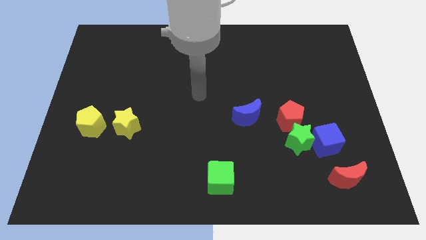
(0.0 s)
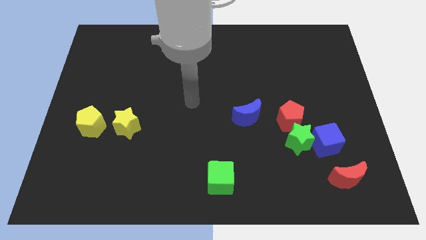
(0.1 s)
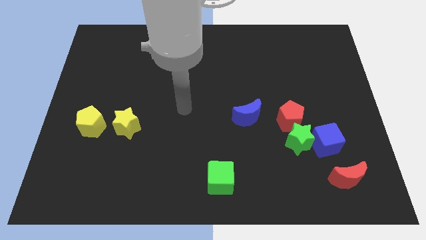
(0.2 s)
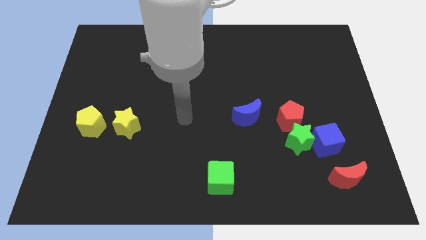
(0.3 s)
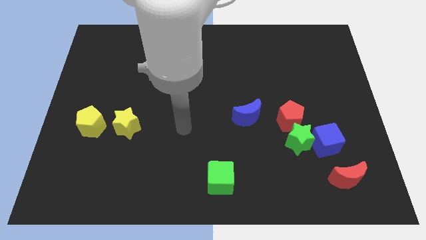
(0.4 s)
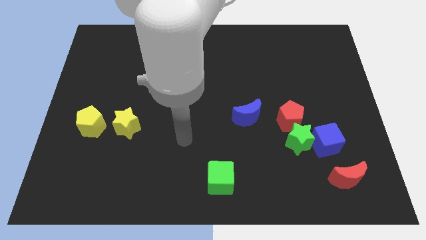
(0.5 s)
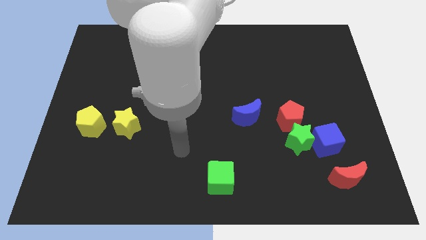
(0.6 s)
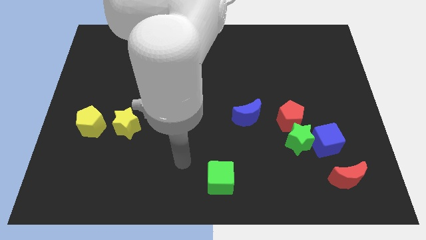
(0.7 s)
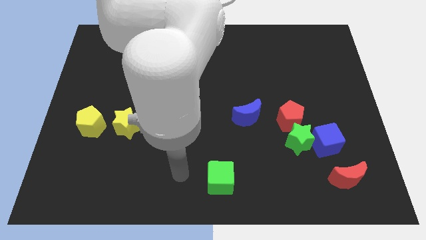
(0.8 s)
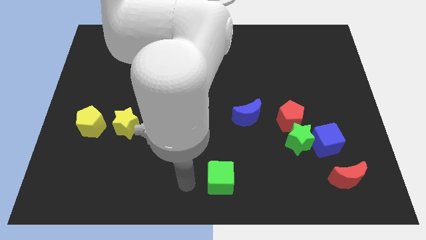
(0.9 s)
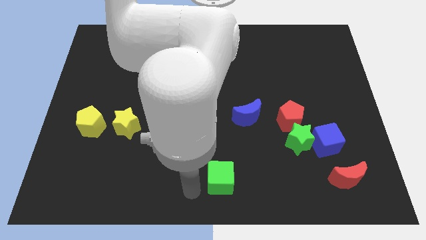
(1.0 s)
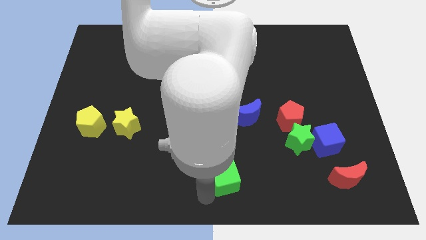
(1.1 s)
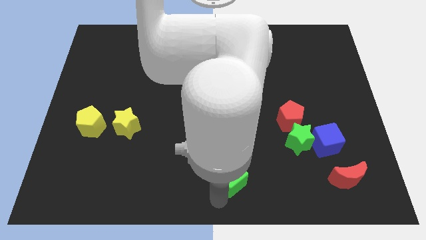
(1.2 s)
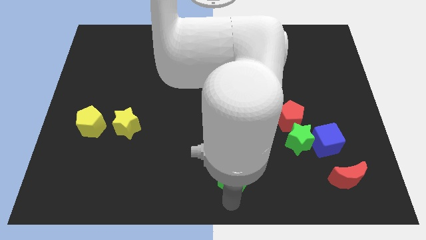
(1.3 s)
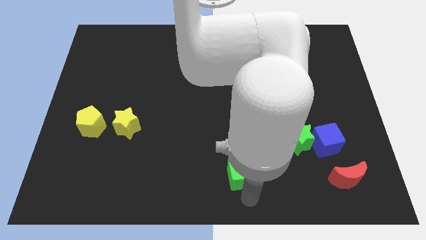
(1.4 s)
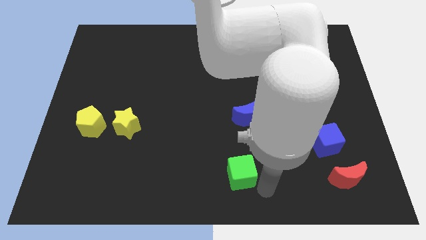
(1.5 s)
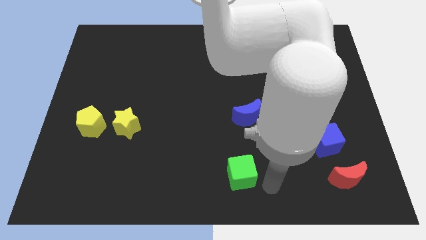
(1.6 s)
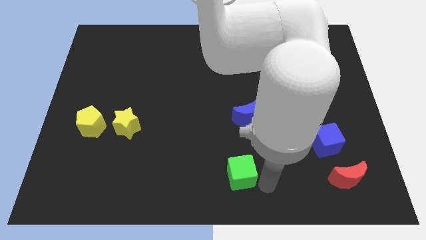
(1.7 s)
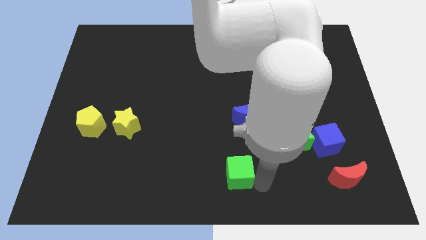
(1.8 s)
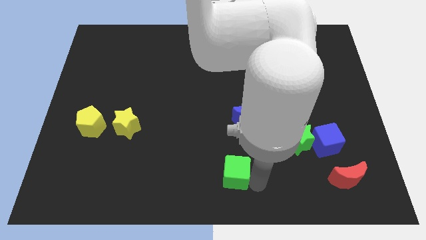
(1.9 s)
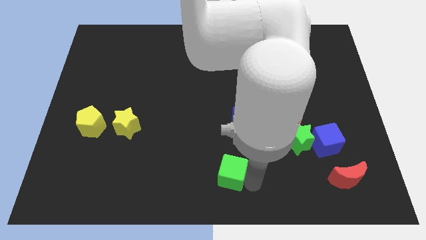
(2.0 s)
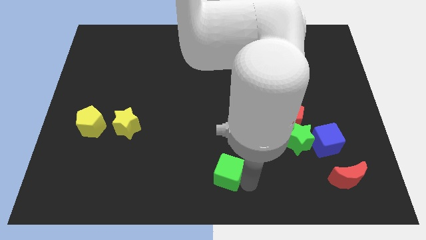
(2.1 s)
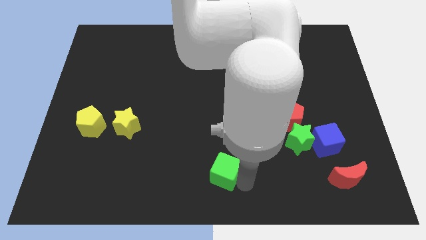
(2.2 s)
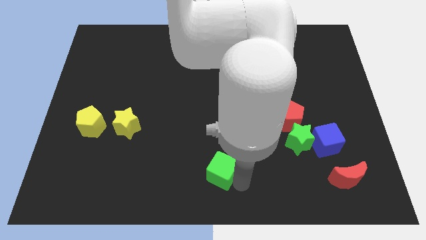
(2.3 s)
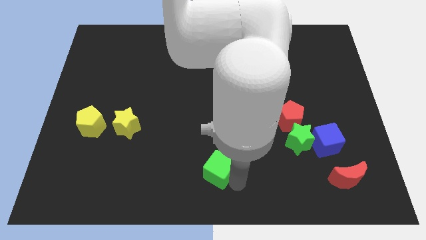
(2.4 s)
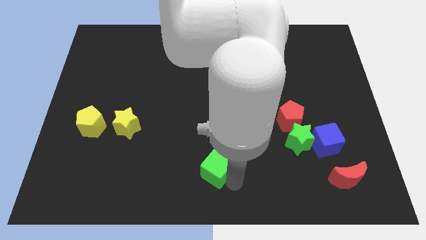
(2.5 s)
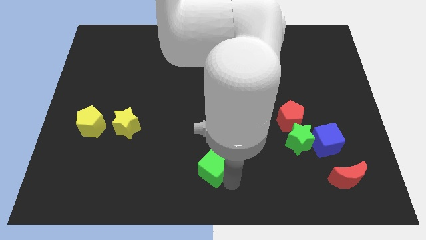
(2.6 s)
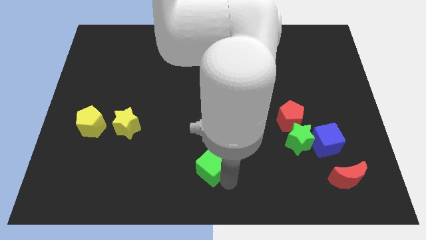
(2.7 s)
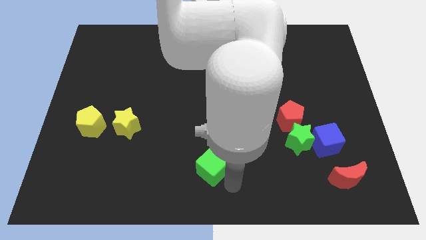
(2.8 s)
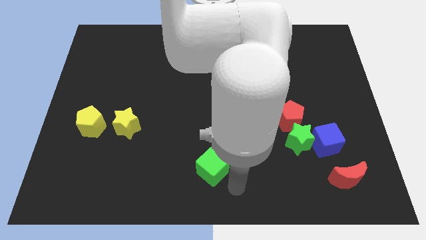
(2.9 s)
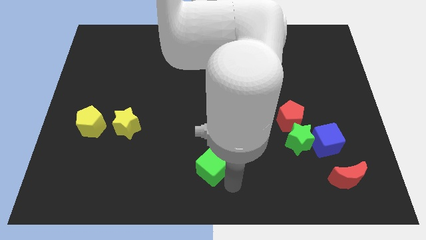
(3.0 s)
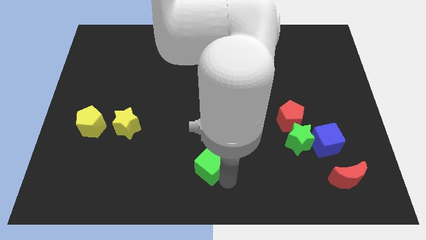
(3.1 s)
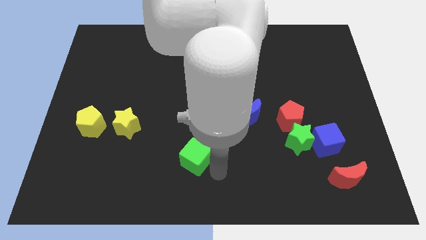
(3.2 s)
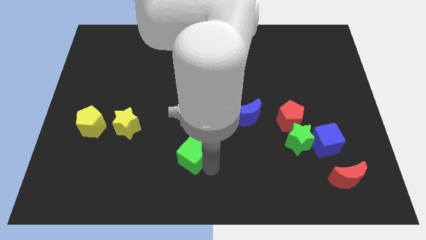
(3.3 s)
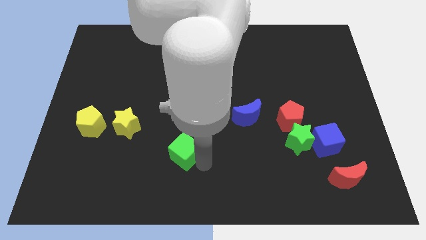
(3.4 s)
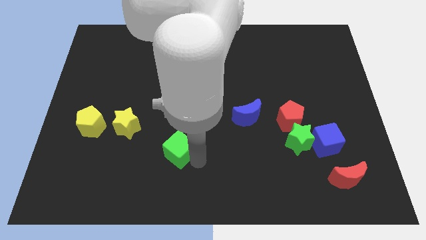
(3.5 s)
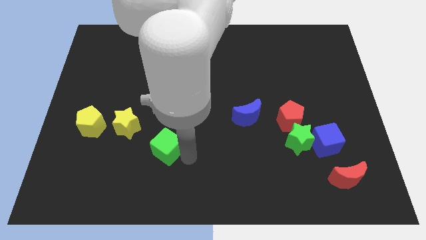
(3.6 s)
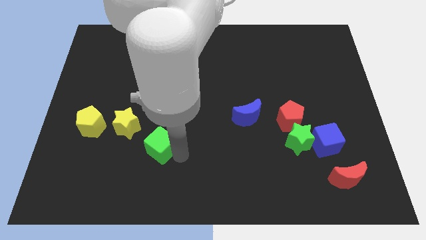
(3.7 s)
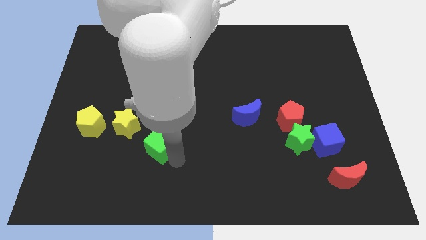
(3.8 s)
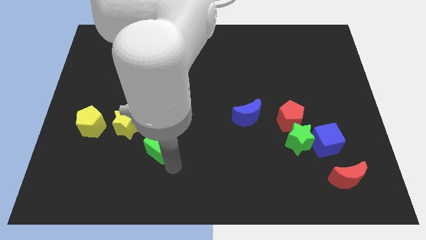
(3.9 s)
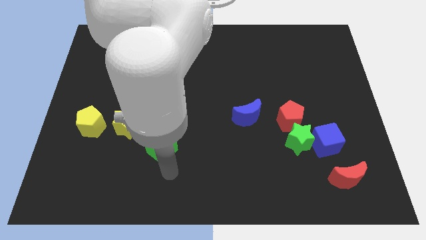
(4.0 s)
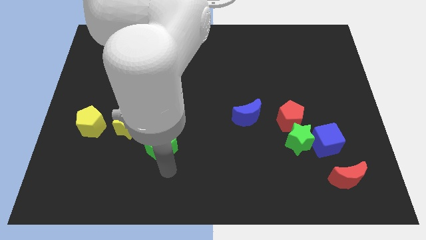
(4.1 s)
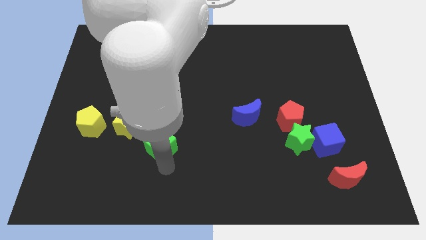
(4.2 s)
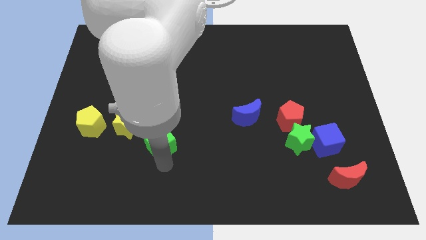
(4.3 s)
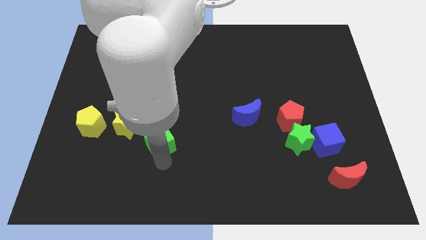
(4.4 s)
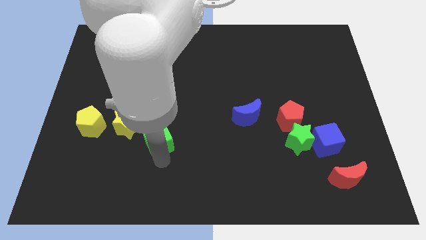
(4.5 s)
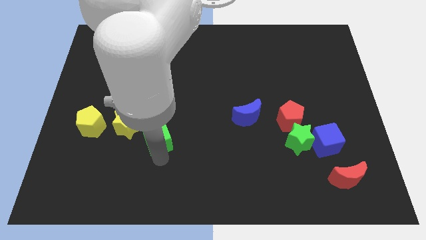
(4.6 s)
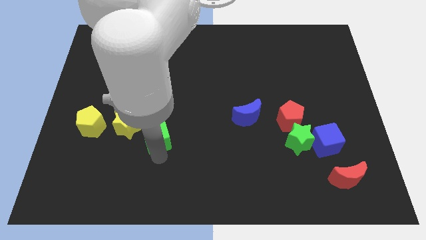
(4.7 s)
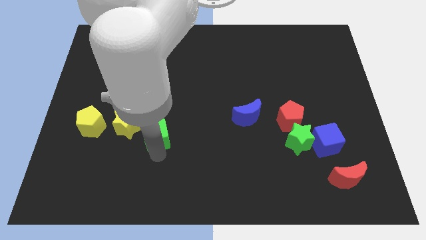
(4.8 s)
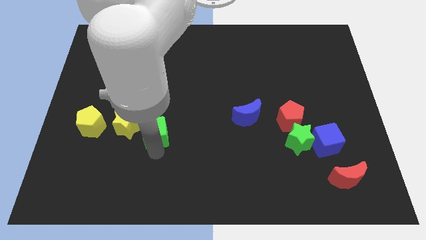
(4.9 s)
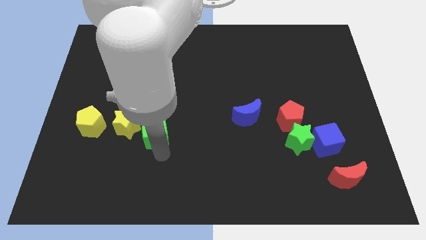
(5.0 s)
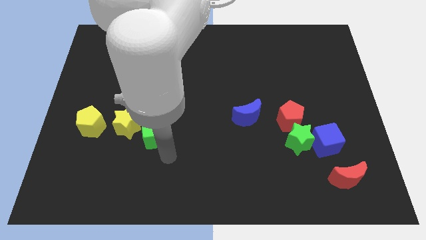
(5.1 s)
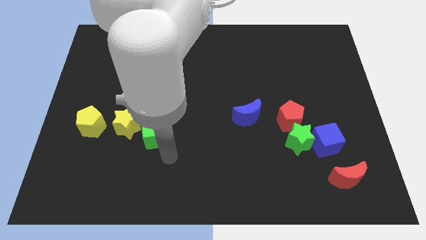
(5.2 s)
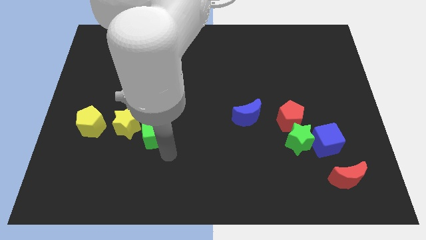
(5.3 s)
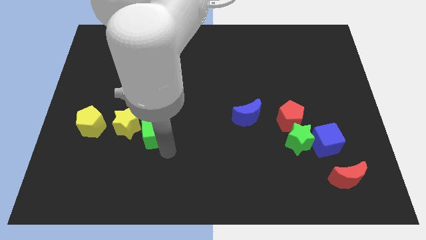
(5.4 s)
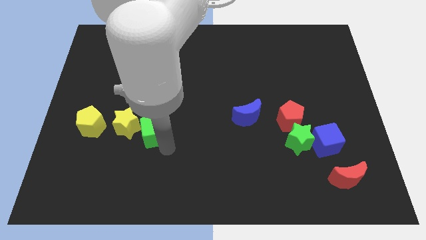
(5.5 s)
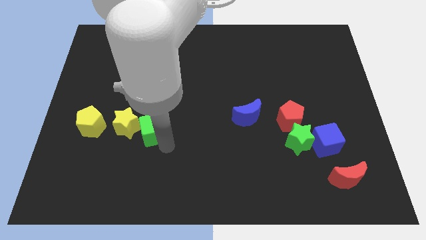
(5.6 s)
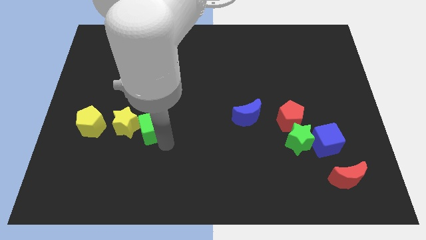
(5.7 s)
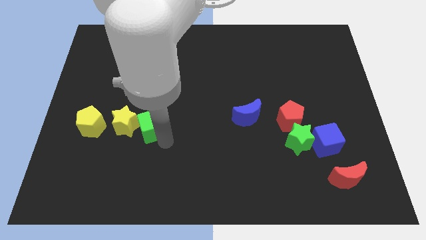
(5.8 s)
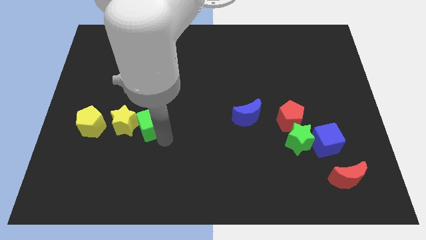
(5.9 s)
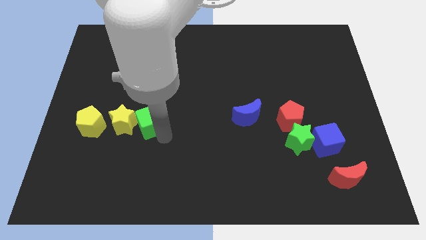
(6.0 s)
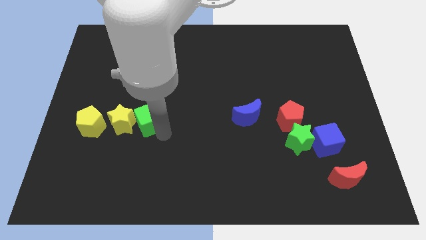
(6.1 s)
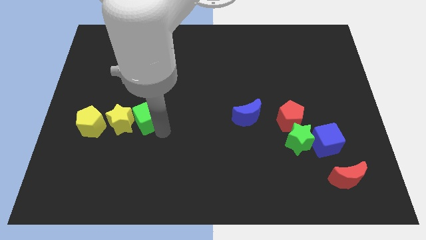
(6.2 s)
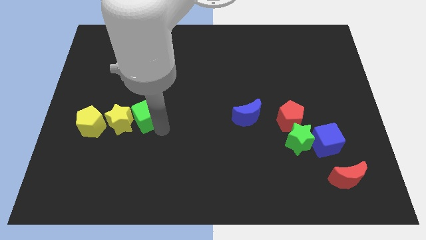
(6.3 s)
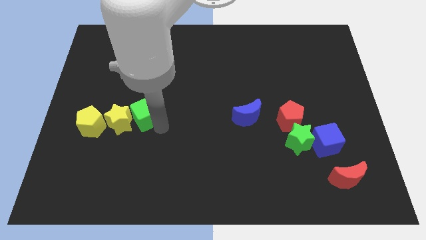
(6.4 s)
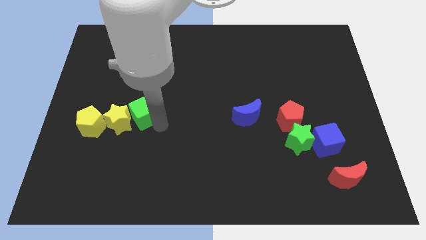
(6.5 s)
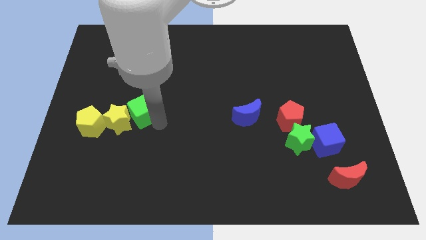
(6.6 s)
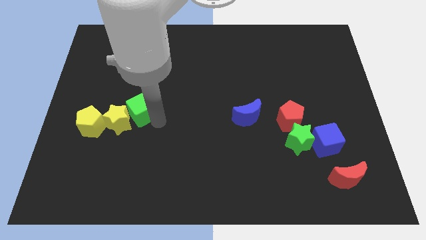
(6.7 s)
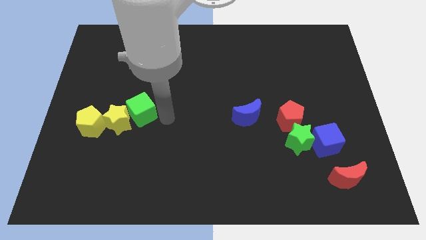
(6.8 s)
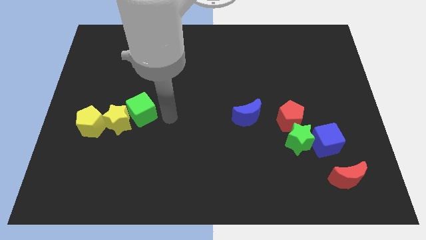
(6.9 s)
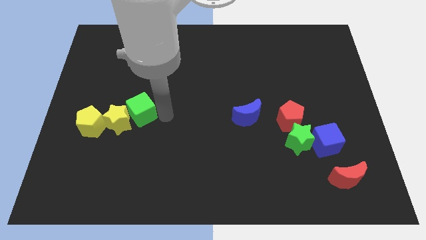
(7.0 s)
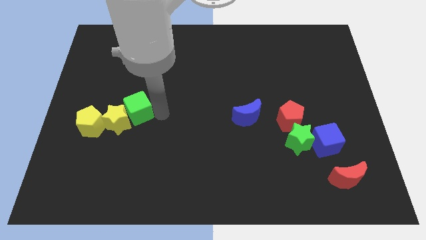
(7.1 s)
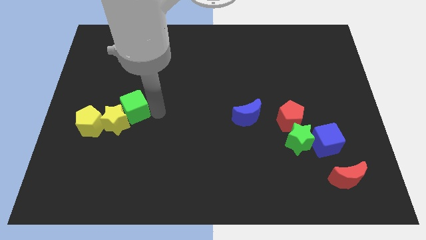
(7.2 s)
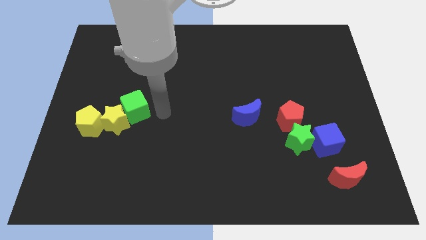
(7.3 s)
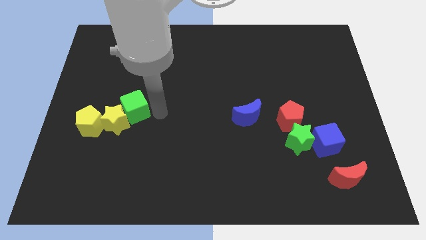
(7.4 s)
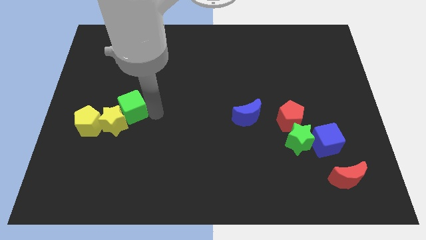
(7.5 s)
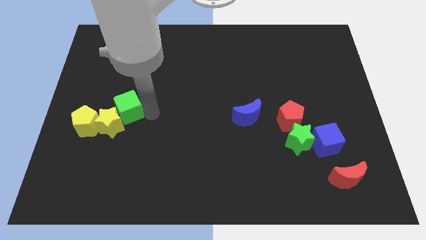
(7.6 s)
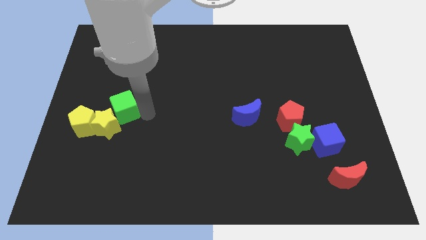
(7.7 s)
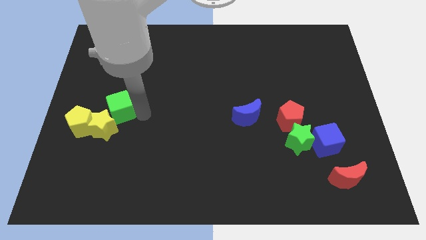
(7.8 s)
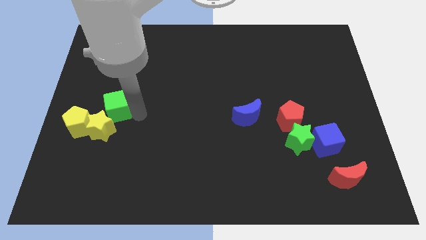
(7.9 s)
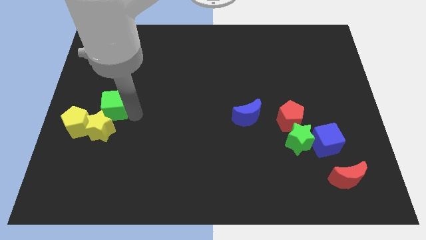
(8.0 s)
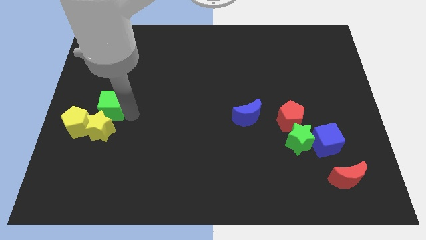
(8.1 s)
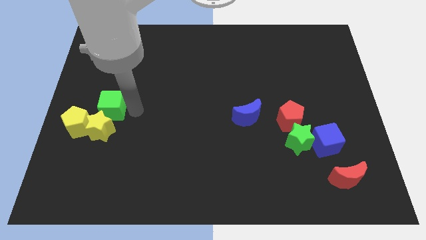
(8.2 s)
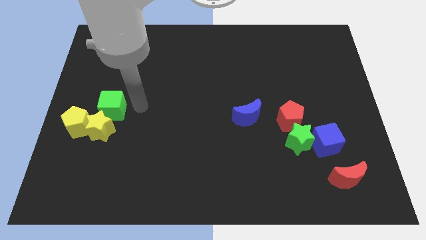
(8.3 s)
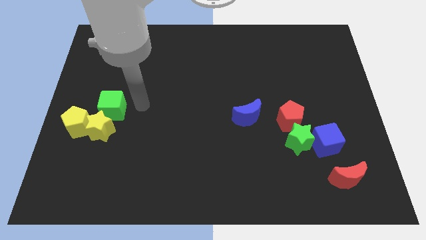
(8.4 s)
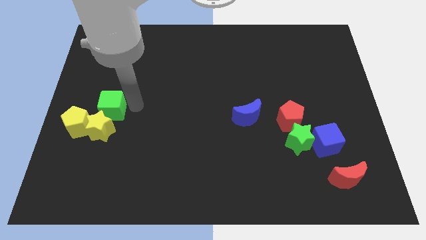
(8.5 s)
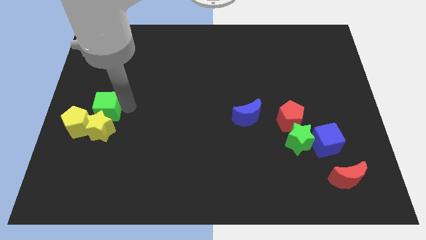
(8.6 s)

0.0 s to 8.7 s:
slide the green cube to the top left side of the yellow star
